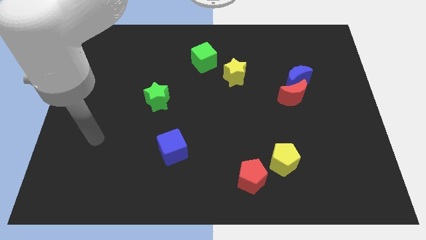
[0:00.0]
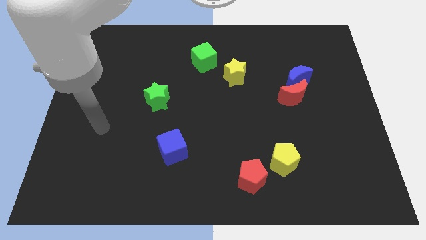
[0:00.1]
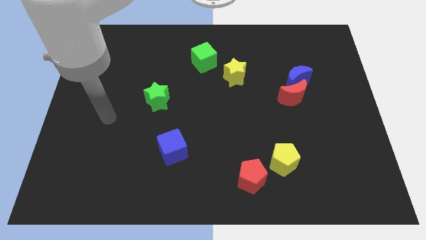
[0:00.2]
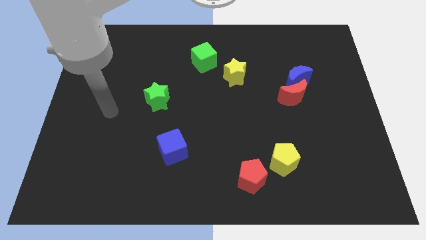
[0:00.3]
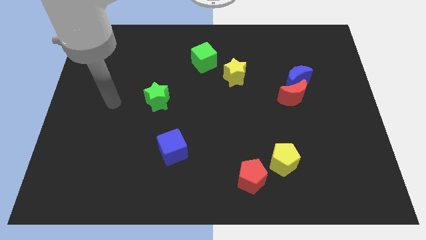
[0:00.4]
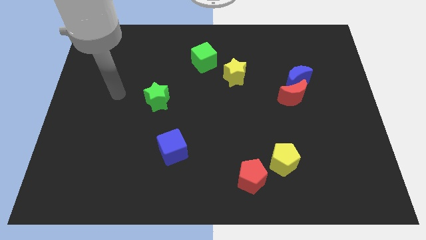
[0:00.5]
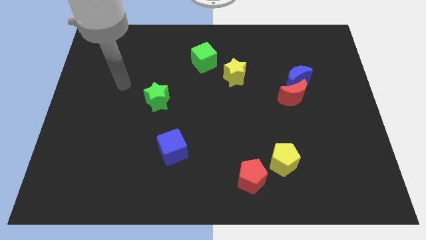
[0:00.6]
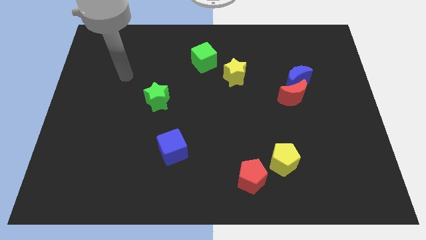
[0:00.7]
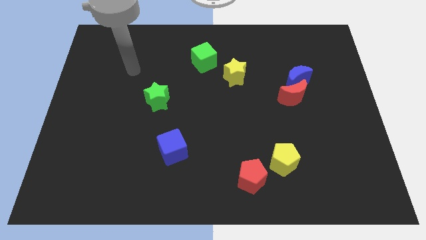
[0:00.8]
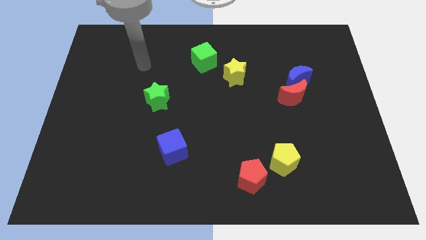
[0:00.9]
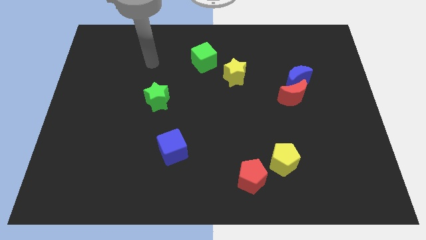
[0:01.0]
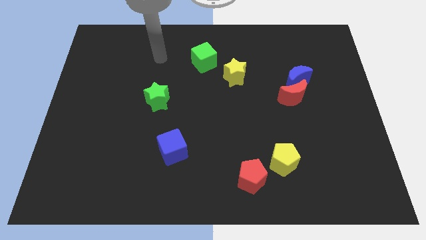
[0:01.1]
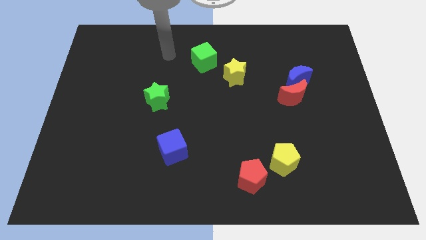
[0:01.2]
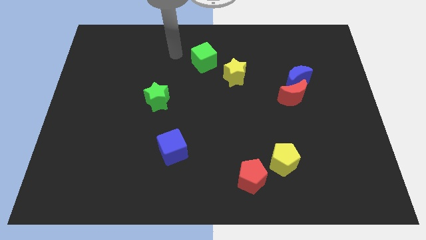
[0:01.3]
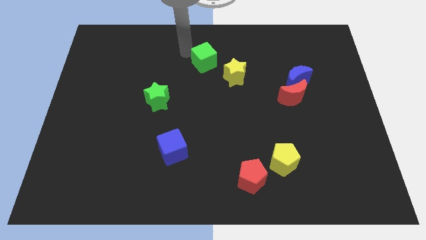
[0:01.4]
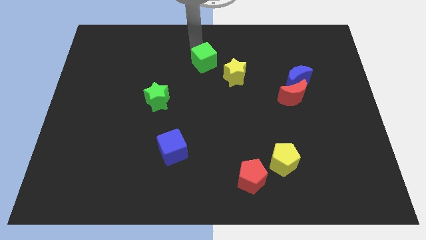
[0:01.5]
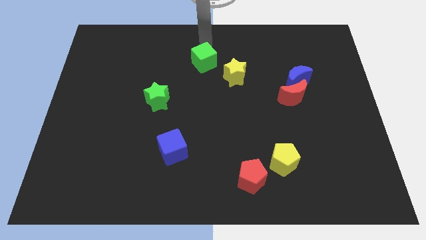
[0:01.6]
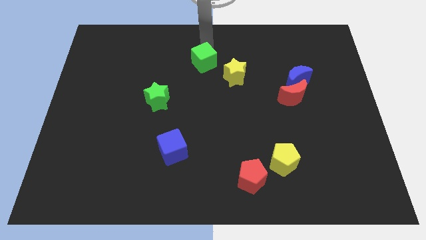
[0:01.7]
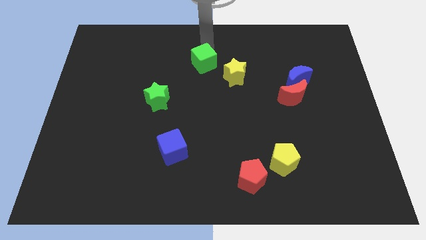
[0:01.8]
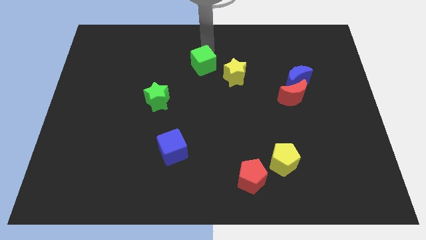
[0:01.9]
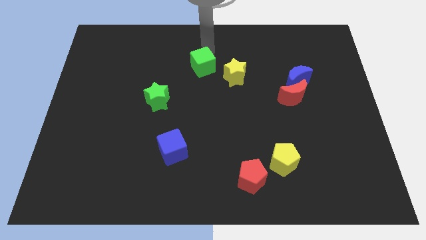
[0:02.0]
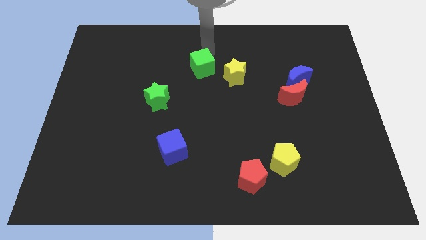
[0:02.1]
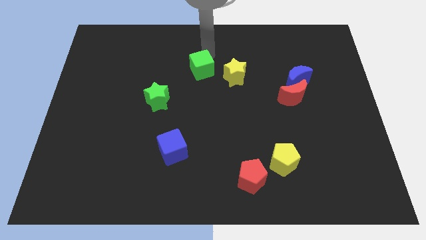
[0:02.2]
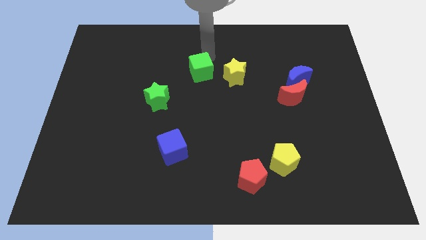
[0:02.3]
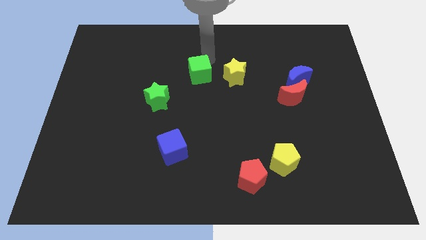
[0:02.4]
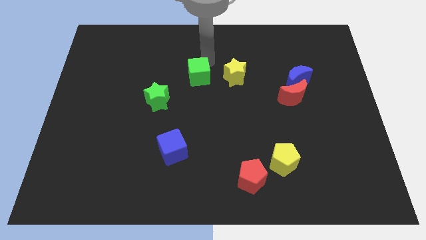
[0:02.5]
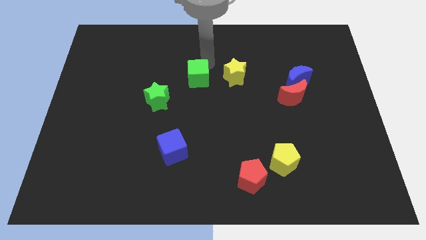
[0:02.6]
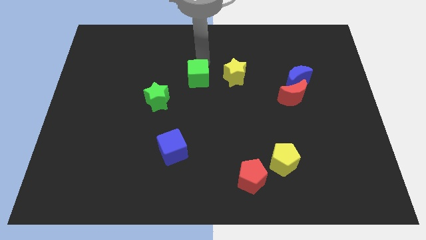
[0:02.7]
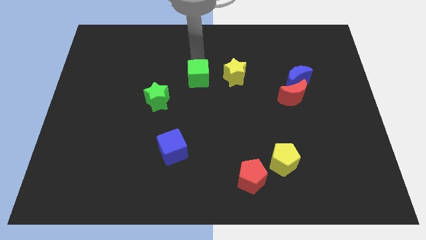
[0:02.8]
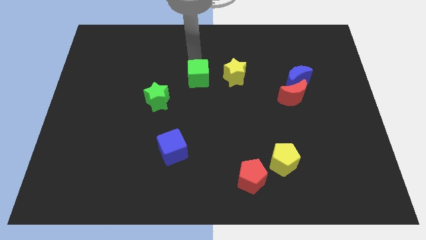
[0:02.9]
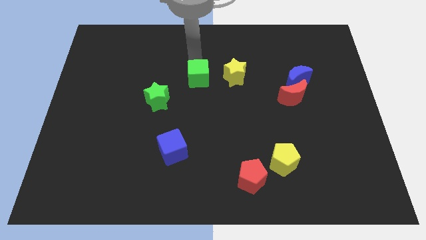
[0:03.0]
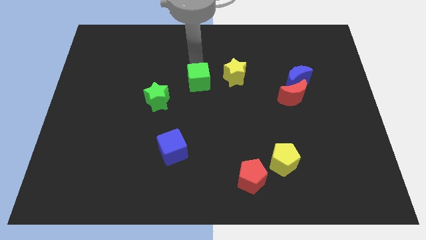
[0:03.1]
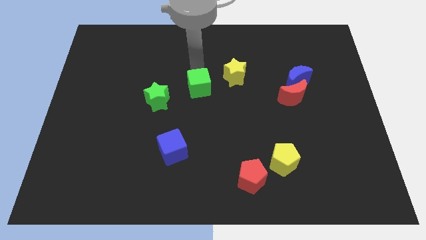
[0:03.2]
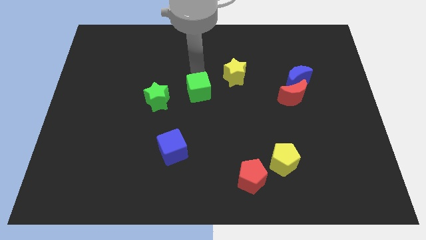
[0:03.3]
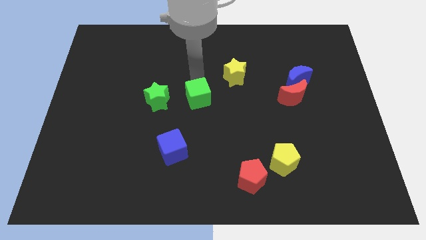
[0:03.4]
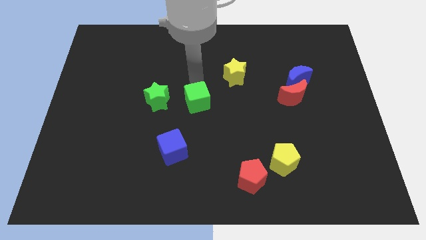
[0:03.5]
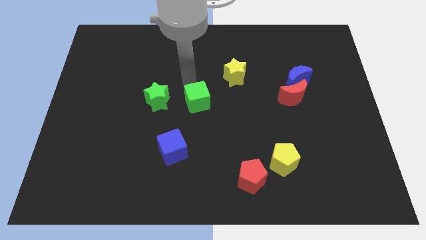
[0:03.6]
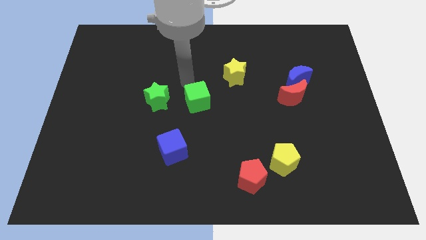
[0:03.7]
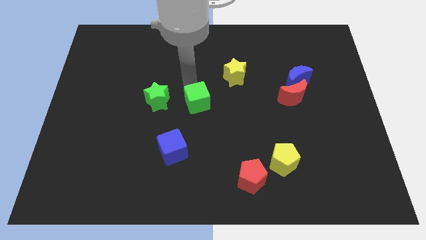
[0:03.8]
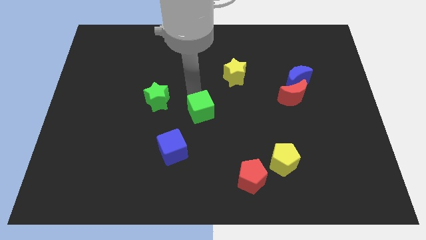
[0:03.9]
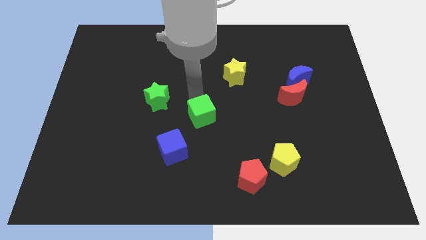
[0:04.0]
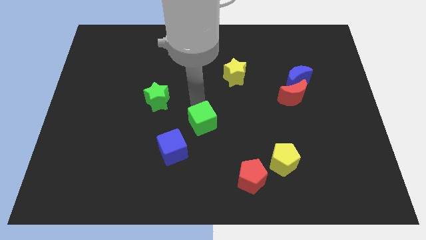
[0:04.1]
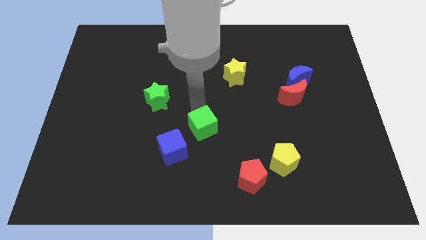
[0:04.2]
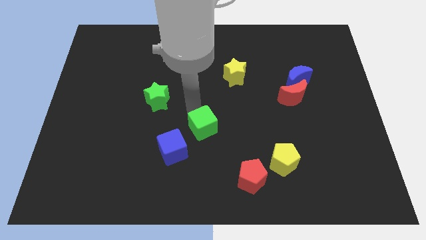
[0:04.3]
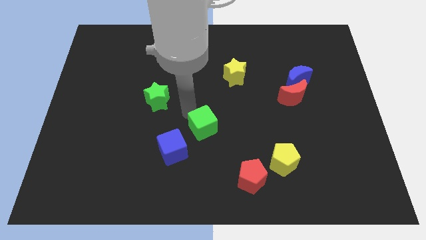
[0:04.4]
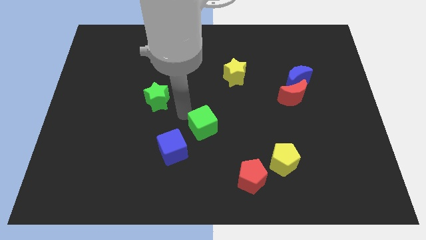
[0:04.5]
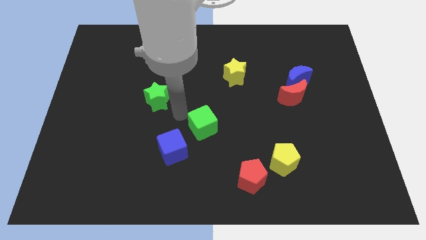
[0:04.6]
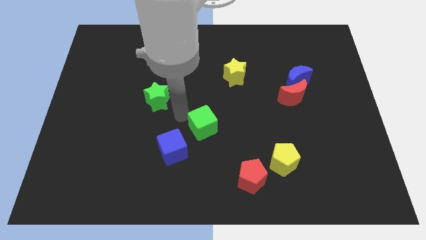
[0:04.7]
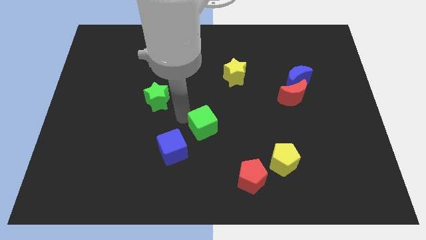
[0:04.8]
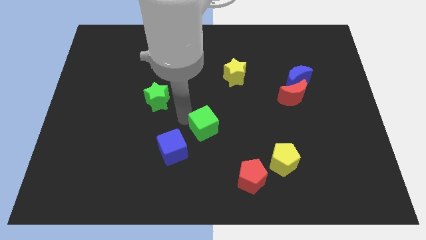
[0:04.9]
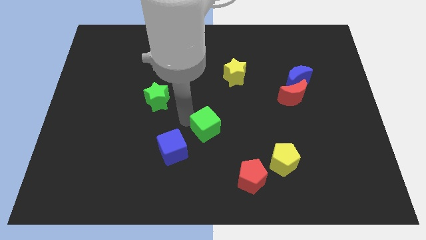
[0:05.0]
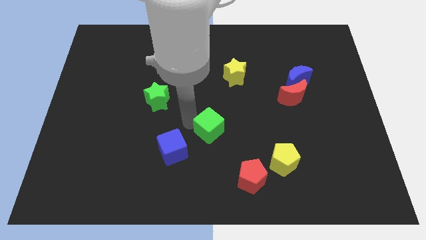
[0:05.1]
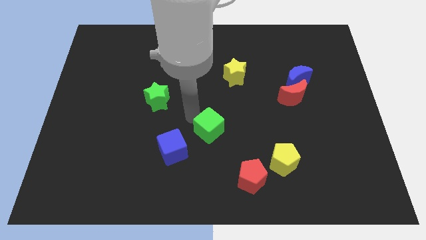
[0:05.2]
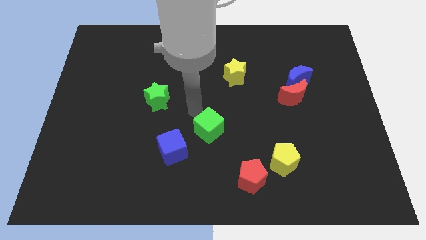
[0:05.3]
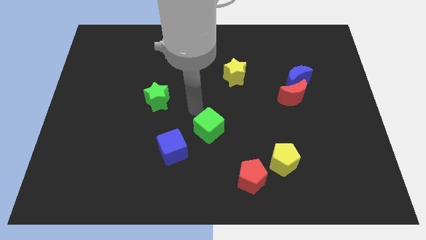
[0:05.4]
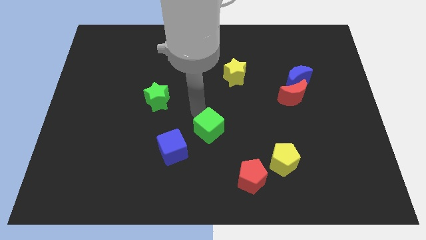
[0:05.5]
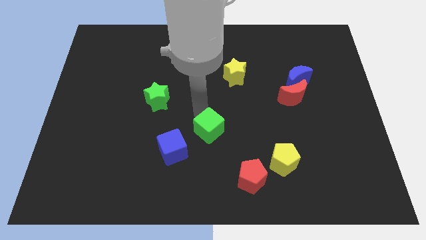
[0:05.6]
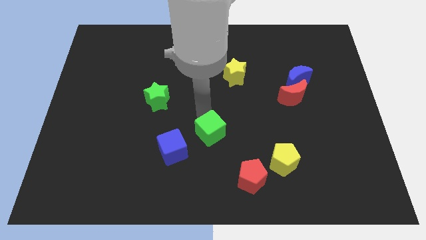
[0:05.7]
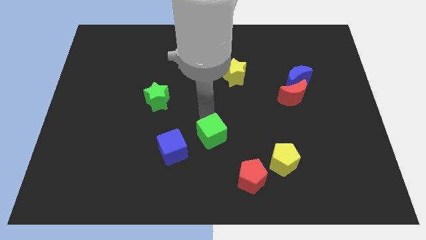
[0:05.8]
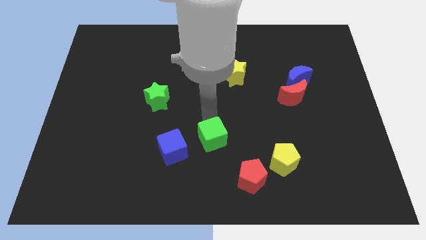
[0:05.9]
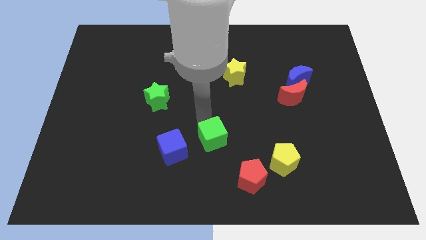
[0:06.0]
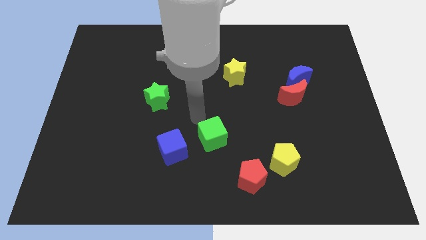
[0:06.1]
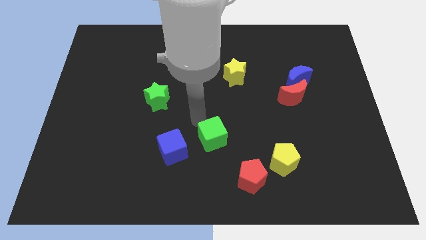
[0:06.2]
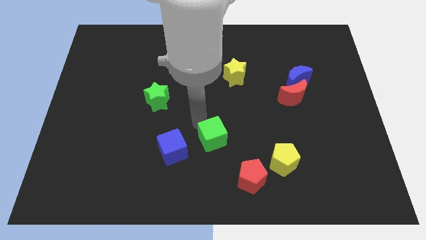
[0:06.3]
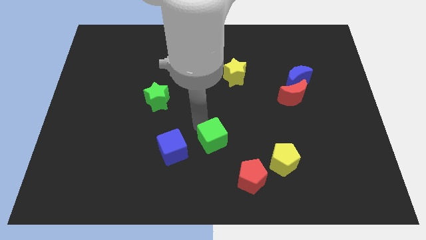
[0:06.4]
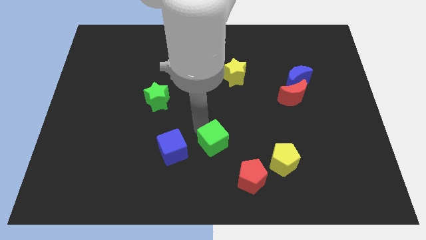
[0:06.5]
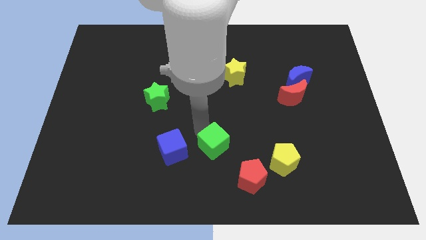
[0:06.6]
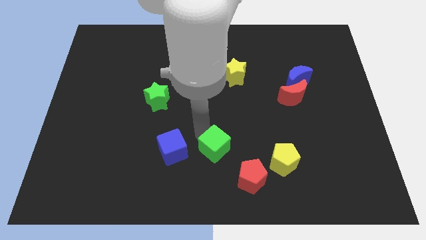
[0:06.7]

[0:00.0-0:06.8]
push the green cube just left of the yellow pentagon
